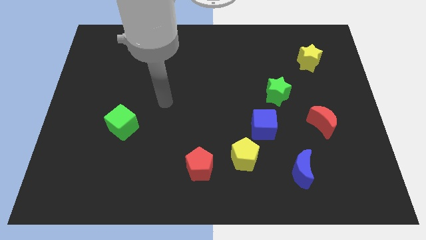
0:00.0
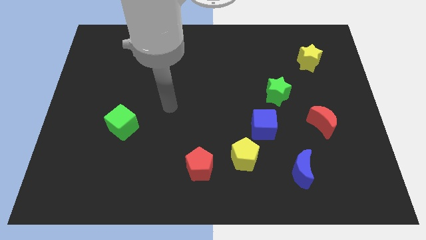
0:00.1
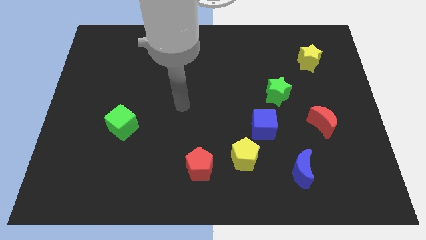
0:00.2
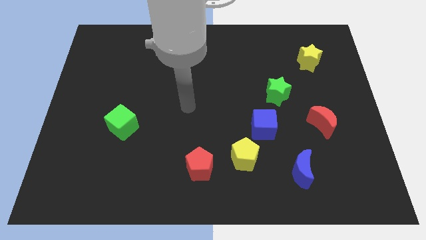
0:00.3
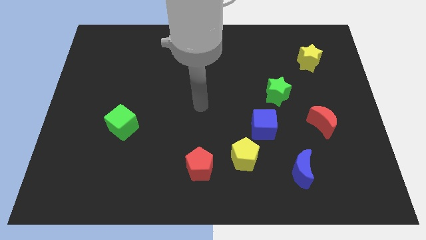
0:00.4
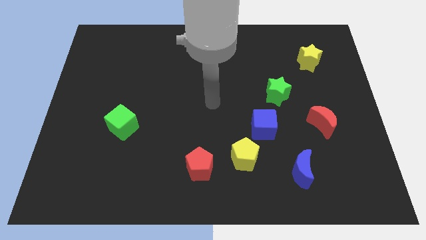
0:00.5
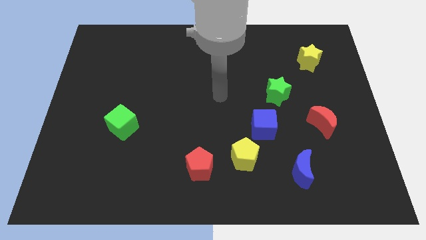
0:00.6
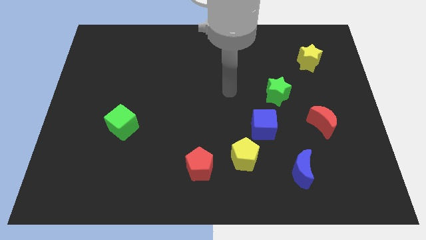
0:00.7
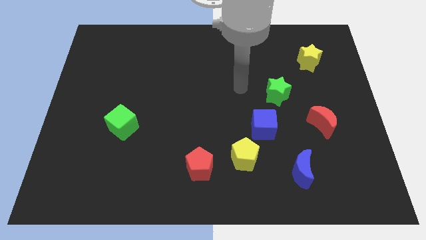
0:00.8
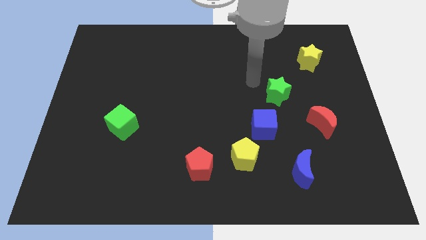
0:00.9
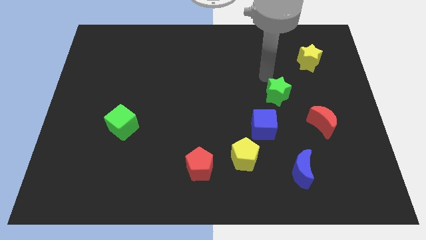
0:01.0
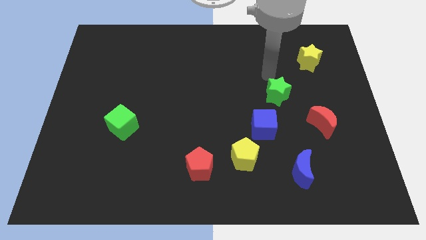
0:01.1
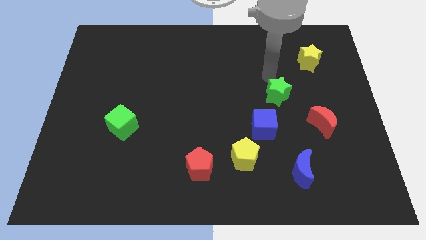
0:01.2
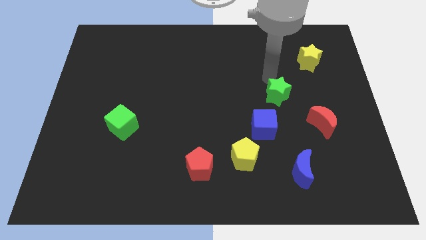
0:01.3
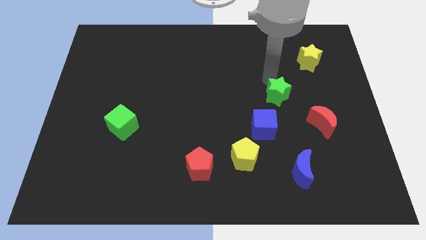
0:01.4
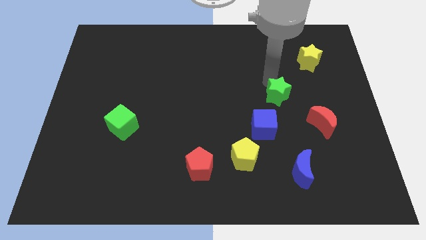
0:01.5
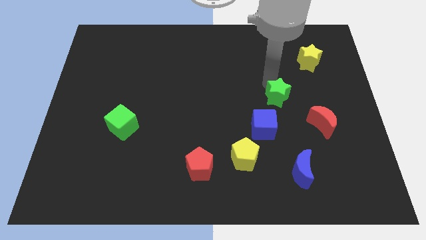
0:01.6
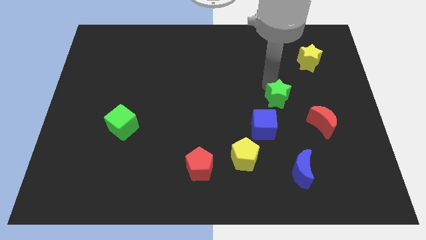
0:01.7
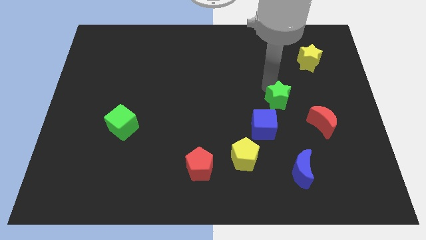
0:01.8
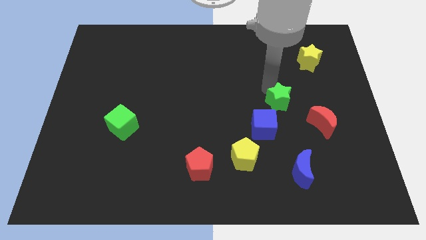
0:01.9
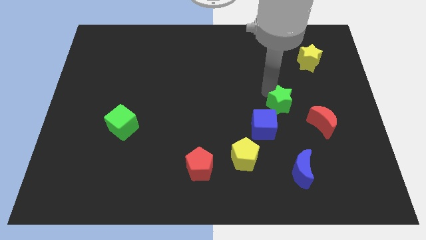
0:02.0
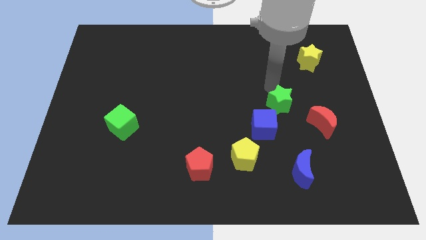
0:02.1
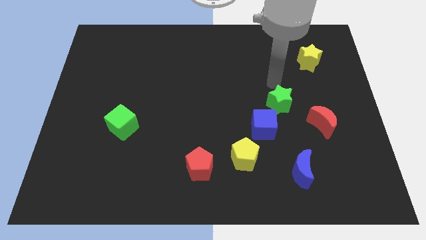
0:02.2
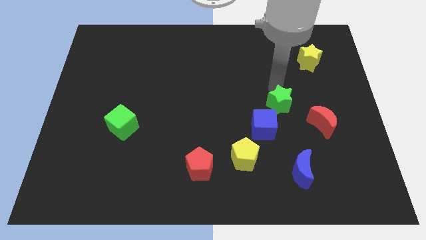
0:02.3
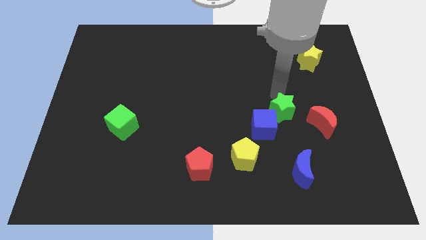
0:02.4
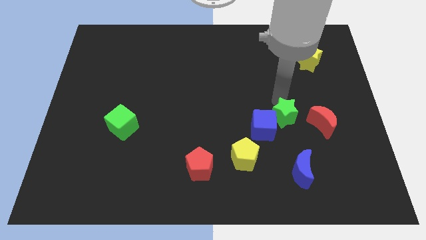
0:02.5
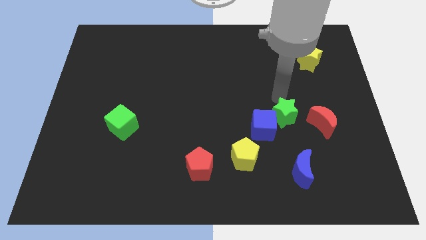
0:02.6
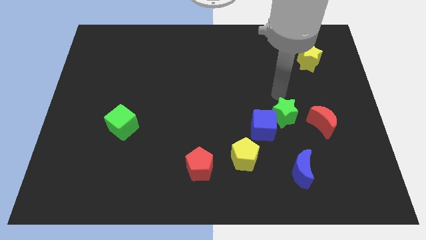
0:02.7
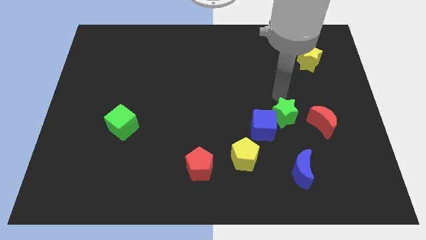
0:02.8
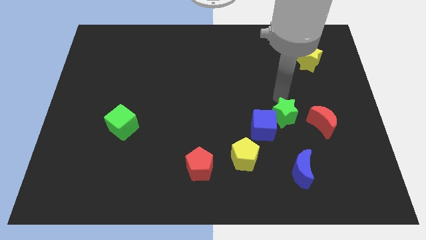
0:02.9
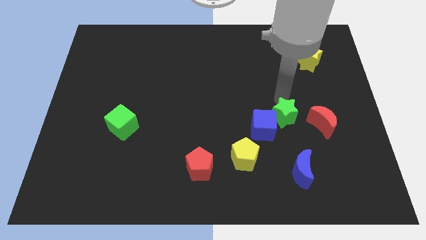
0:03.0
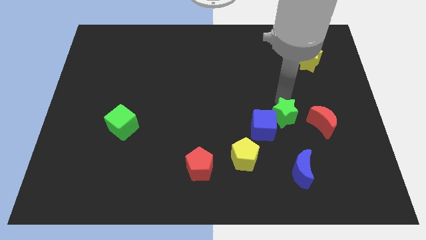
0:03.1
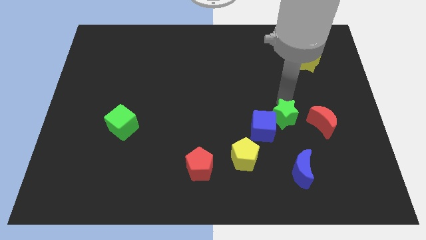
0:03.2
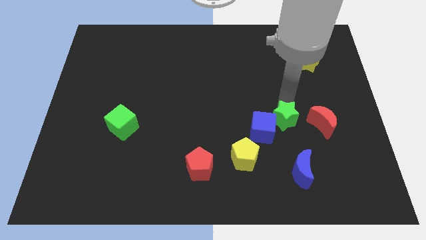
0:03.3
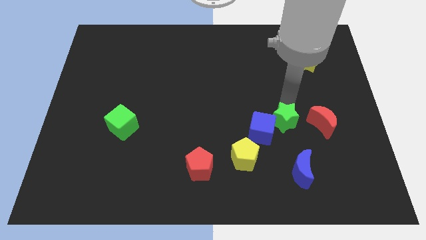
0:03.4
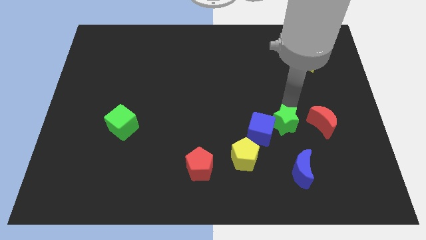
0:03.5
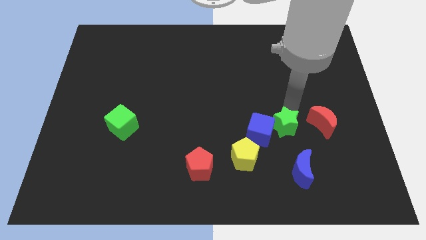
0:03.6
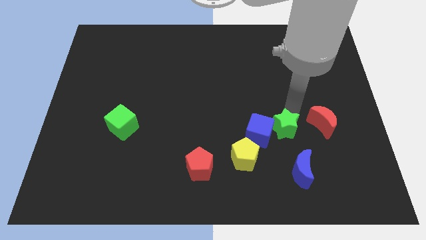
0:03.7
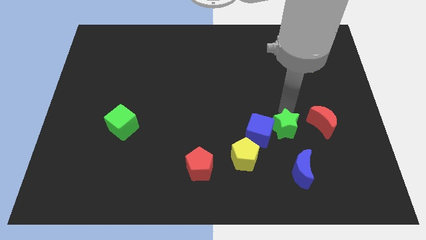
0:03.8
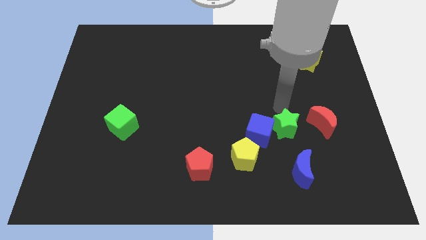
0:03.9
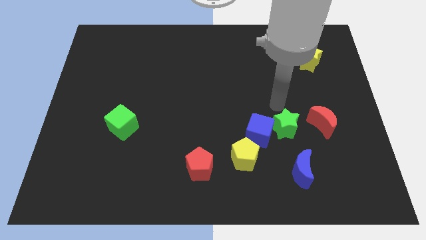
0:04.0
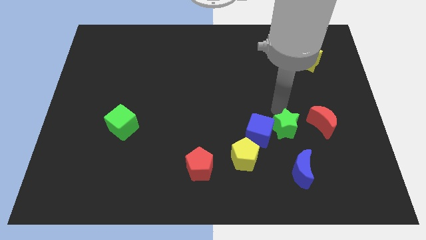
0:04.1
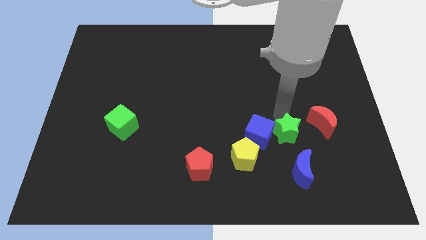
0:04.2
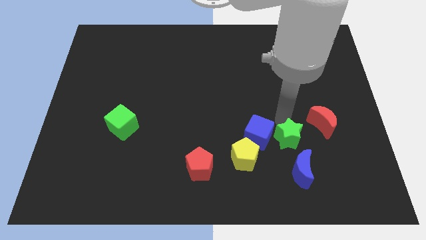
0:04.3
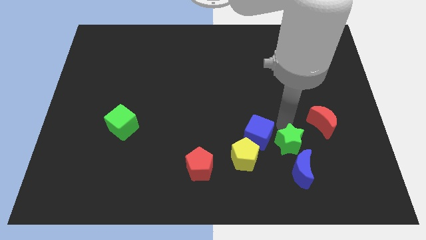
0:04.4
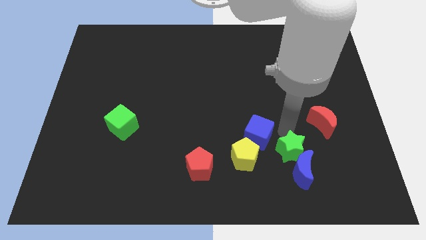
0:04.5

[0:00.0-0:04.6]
push the green star towards the blue moon

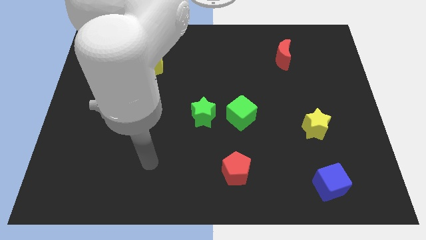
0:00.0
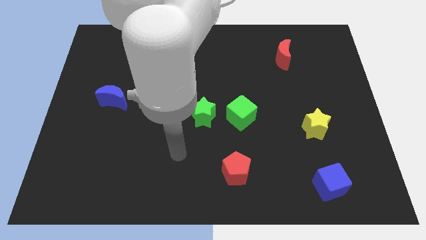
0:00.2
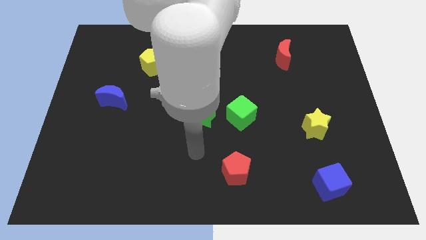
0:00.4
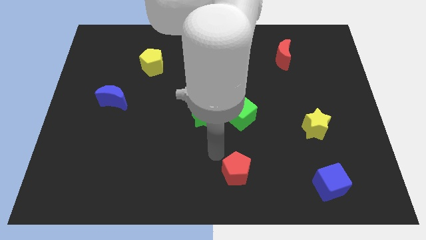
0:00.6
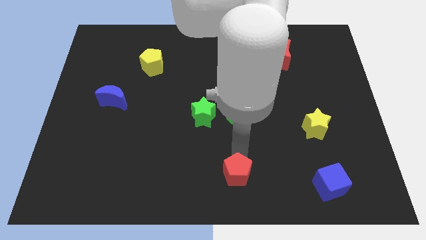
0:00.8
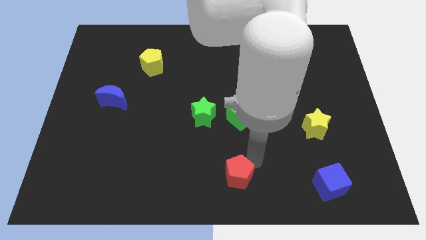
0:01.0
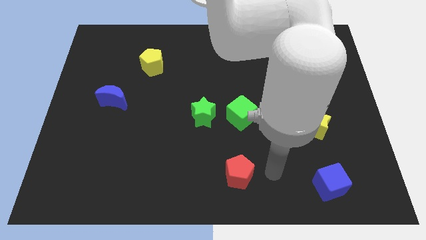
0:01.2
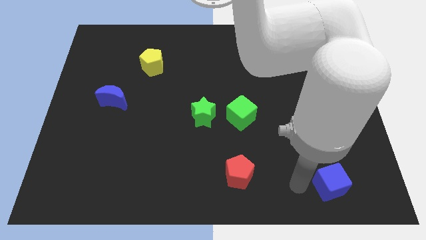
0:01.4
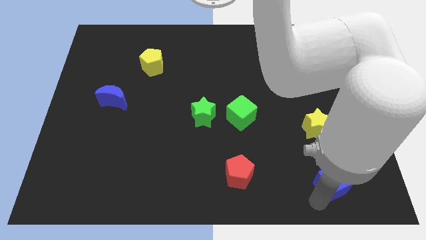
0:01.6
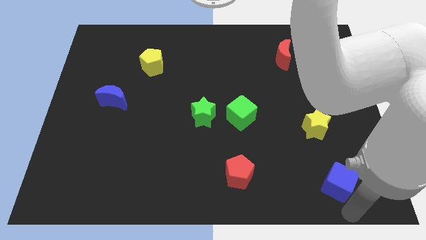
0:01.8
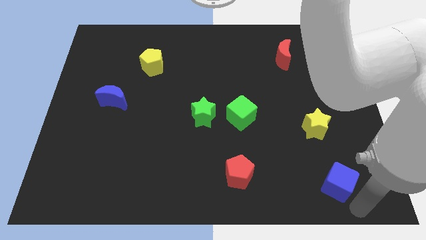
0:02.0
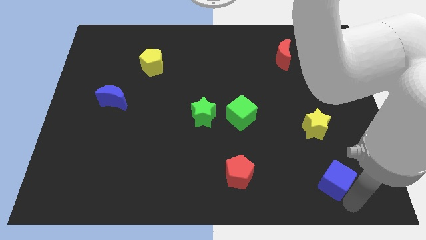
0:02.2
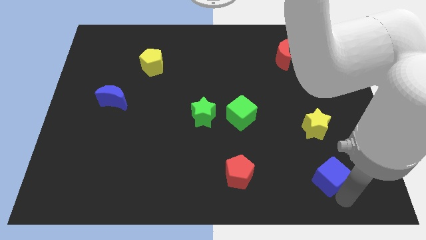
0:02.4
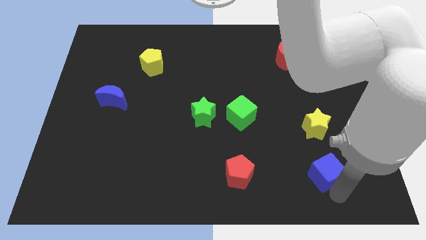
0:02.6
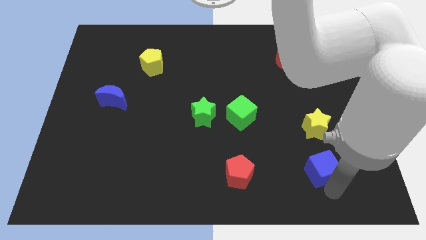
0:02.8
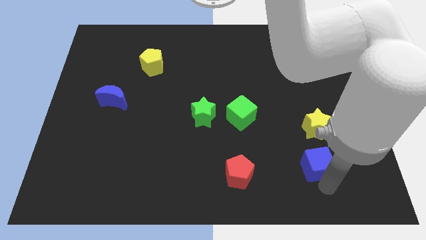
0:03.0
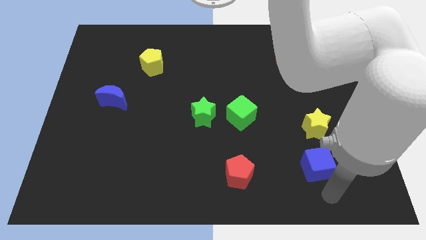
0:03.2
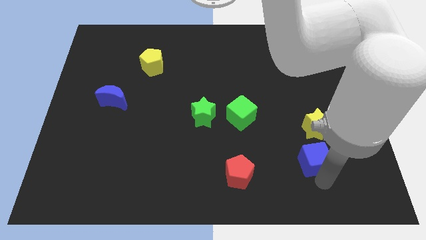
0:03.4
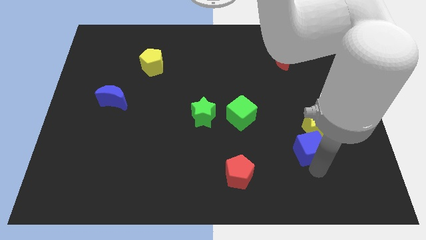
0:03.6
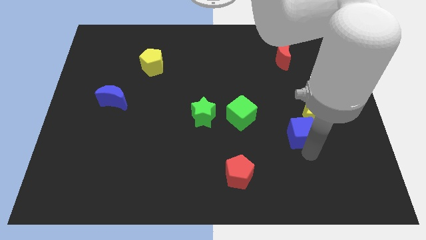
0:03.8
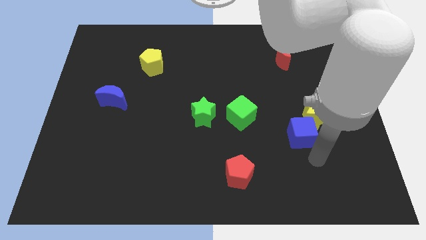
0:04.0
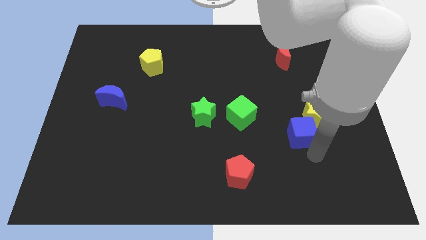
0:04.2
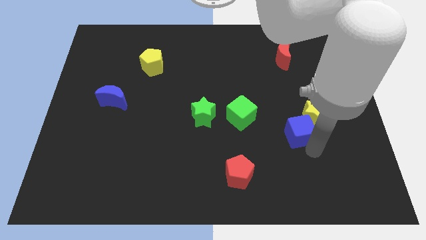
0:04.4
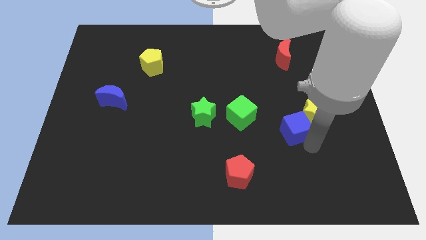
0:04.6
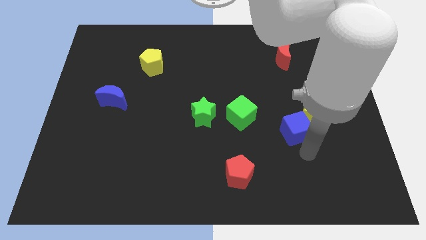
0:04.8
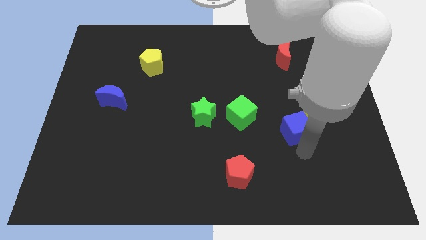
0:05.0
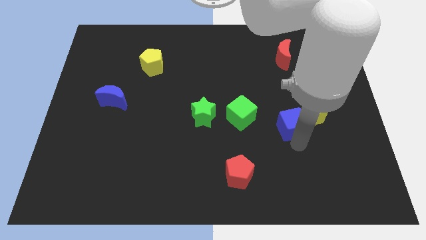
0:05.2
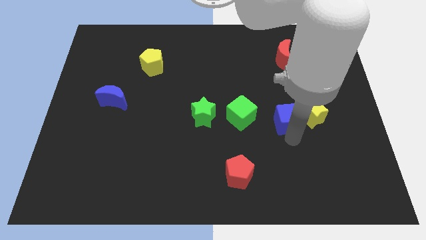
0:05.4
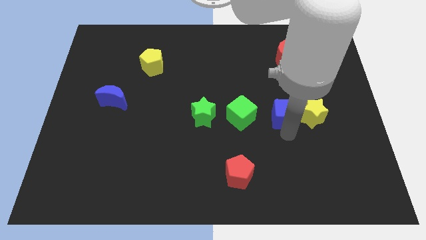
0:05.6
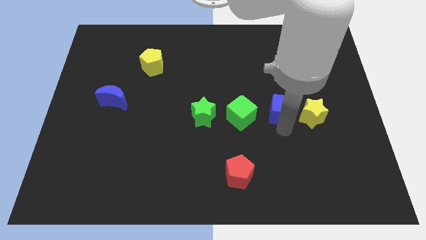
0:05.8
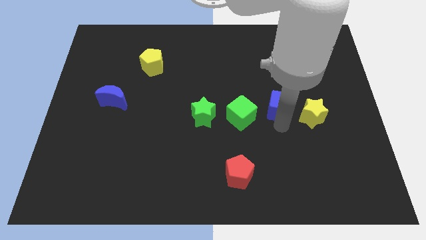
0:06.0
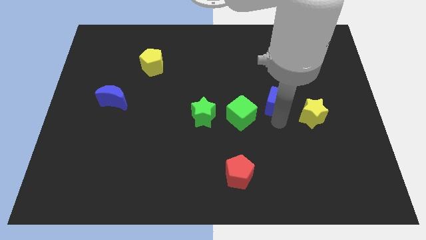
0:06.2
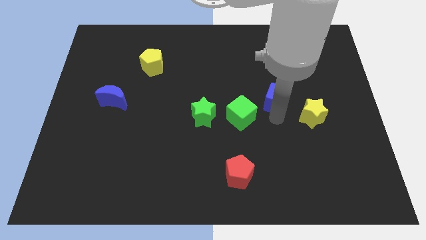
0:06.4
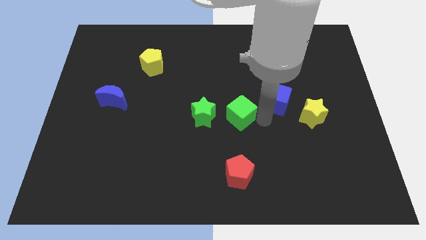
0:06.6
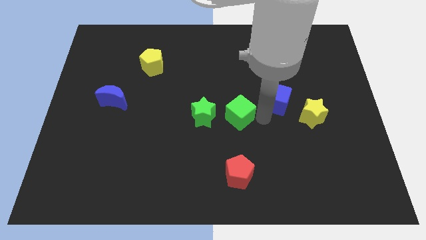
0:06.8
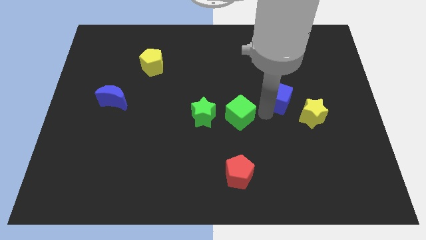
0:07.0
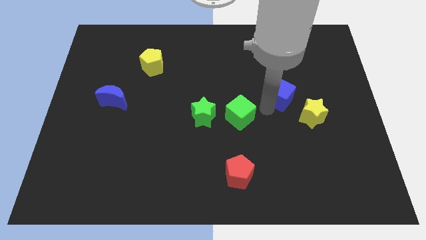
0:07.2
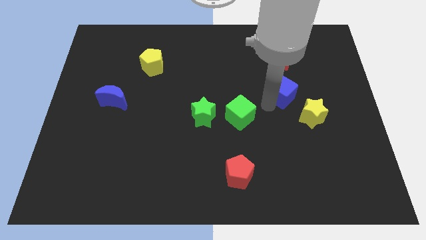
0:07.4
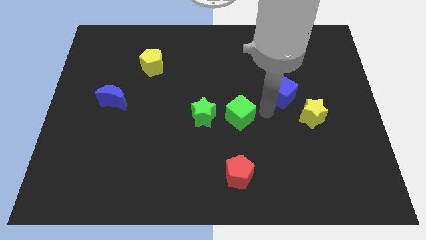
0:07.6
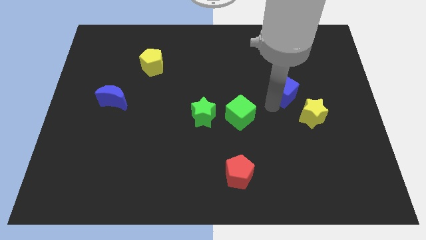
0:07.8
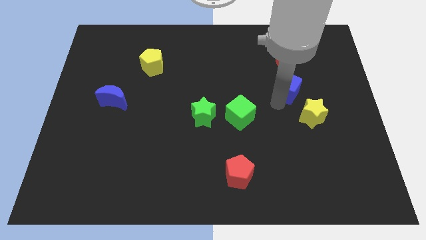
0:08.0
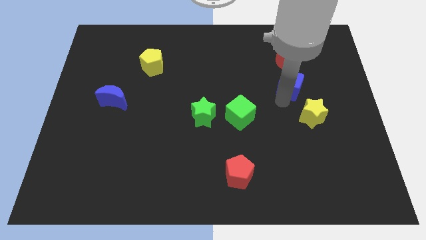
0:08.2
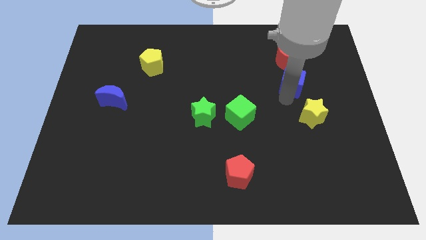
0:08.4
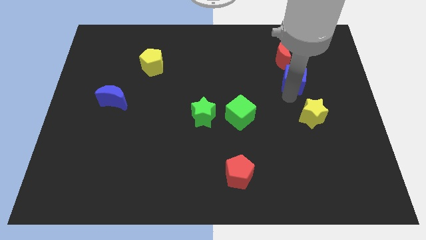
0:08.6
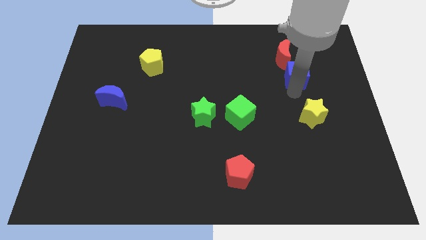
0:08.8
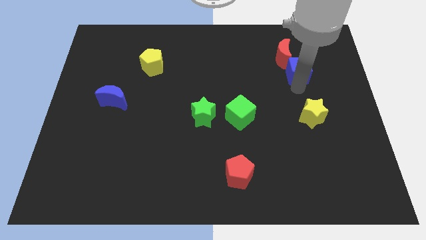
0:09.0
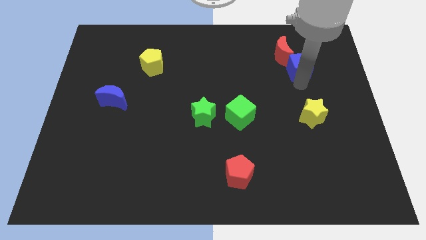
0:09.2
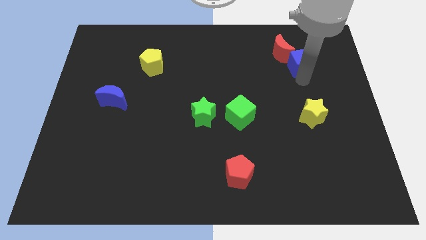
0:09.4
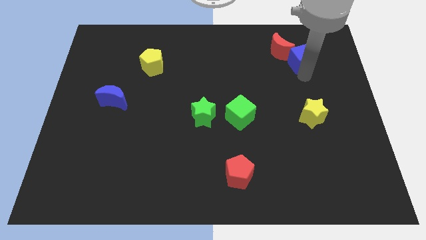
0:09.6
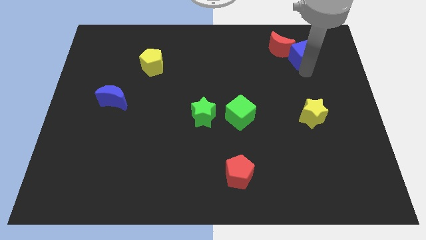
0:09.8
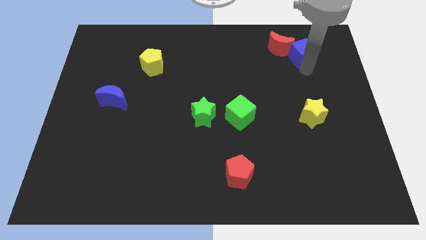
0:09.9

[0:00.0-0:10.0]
put the blue cube close to the red moon
